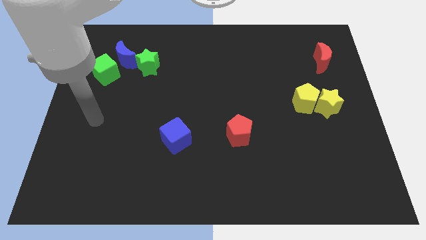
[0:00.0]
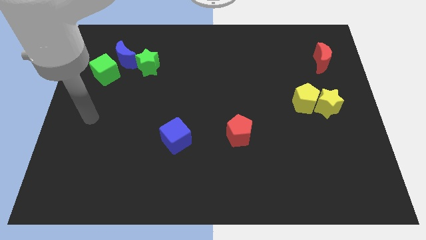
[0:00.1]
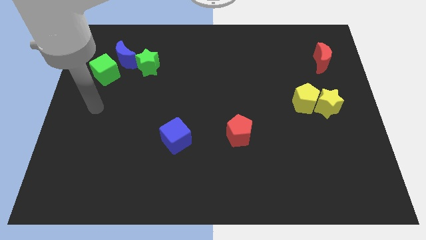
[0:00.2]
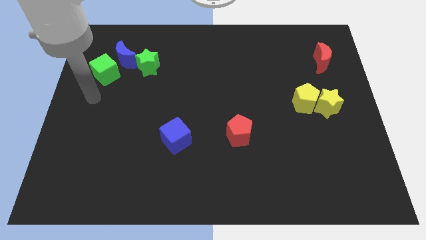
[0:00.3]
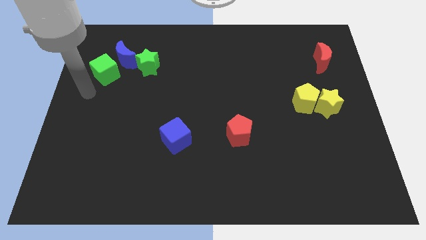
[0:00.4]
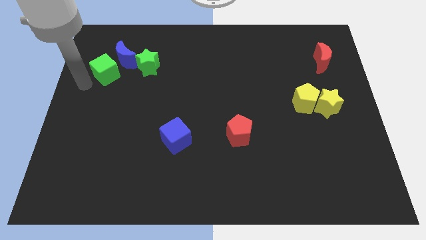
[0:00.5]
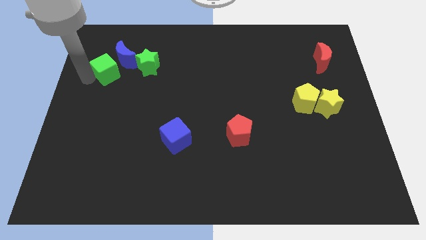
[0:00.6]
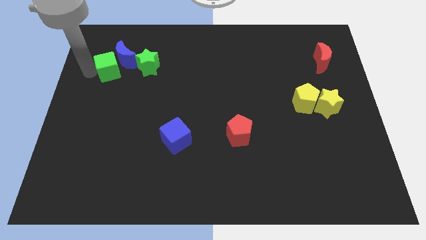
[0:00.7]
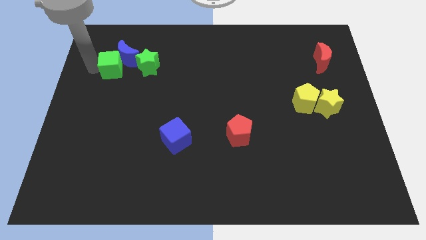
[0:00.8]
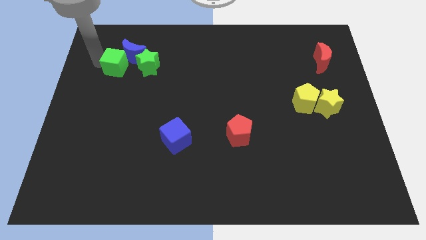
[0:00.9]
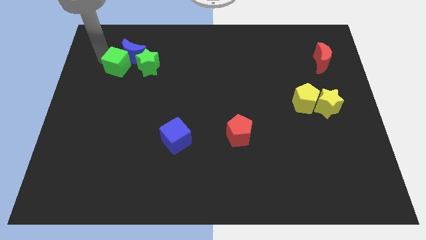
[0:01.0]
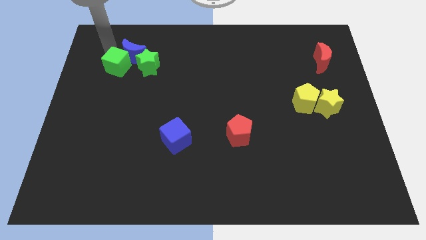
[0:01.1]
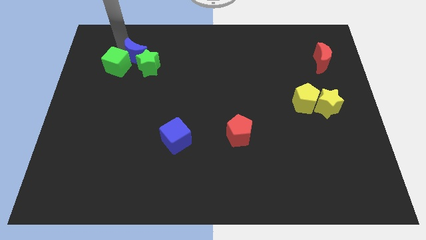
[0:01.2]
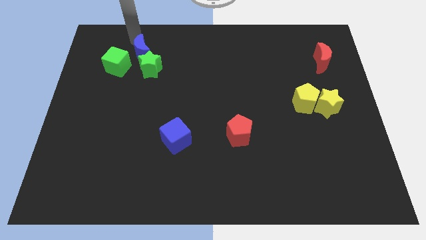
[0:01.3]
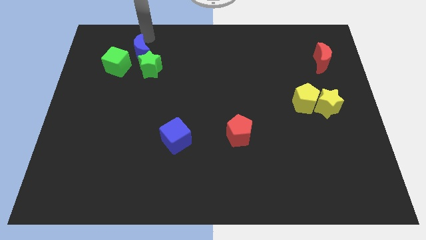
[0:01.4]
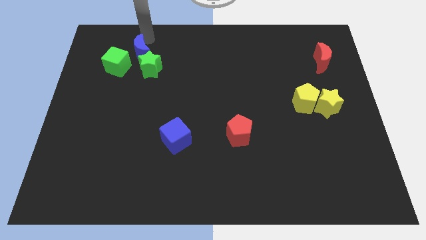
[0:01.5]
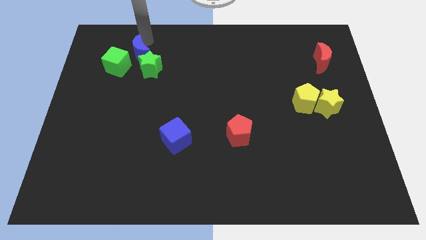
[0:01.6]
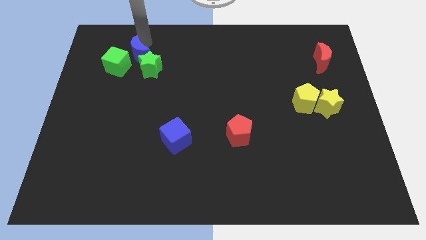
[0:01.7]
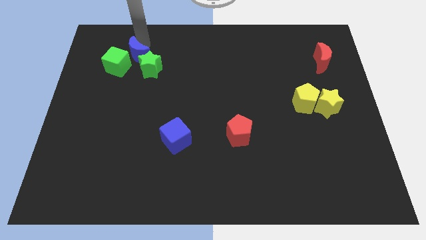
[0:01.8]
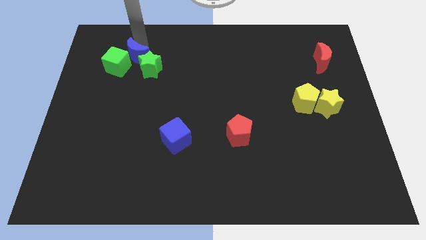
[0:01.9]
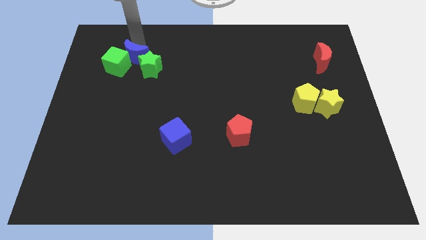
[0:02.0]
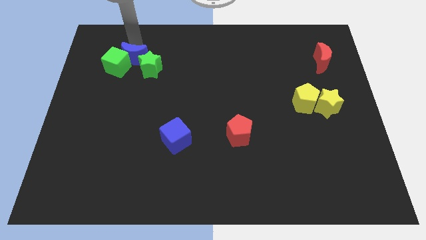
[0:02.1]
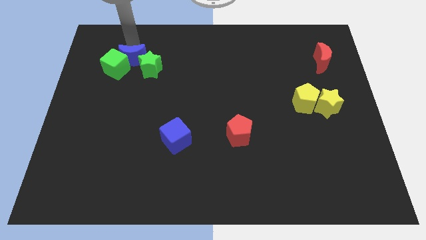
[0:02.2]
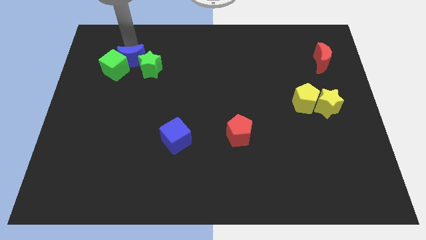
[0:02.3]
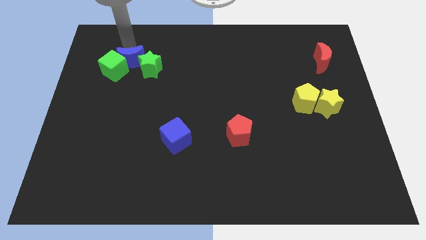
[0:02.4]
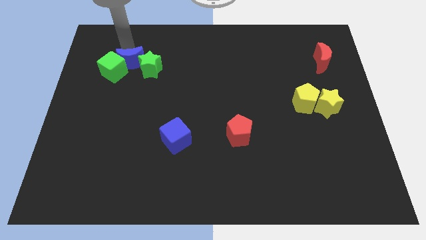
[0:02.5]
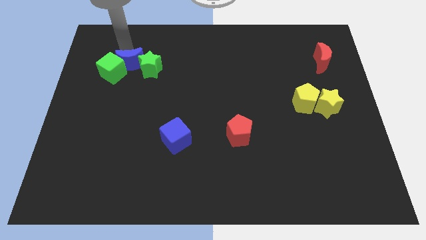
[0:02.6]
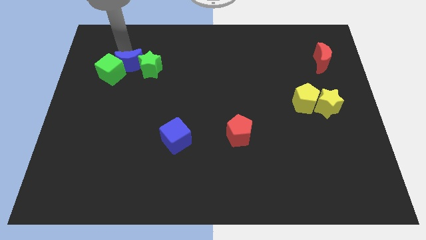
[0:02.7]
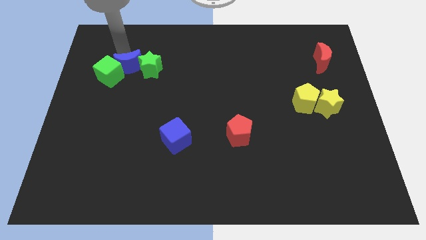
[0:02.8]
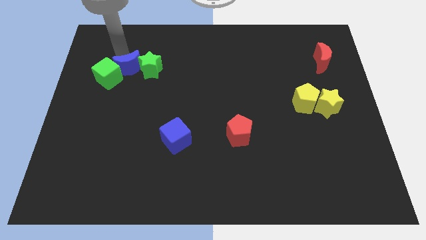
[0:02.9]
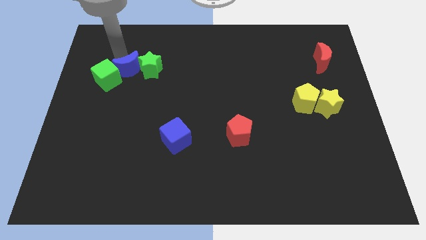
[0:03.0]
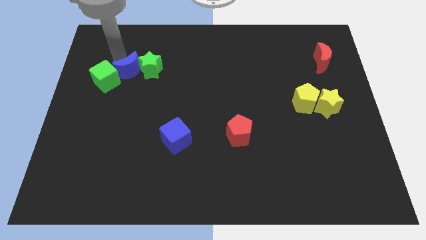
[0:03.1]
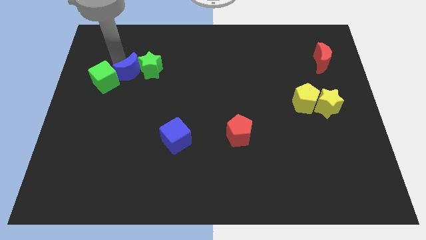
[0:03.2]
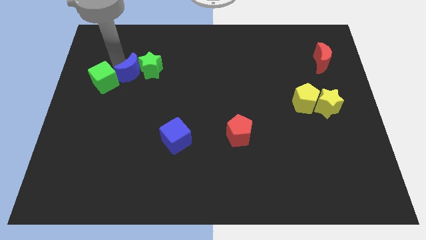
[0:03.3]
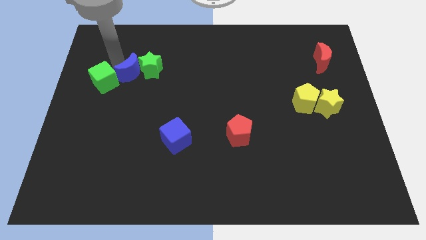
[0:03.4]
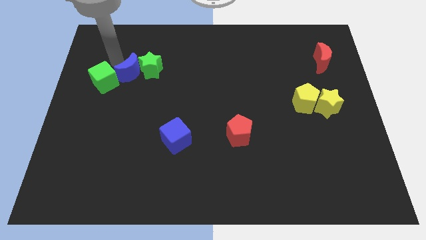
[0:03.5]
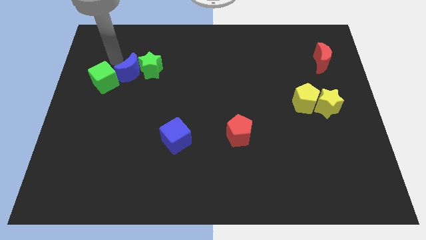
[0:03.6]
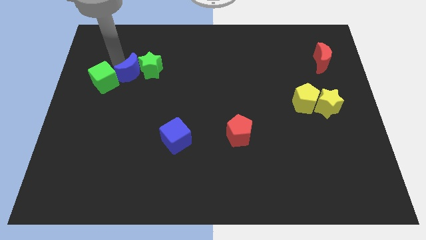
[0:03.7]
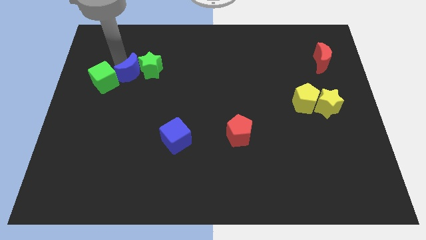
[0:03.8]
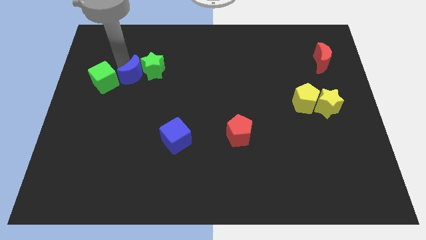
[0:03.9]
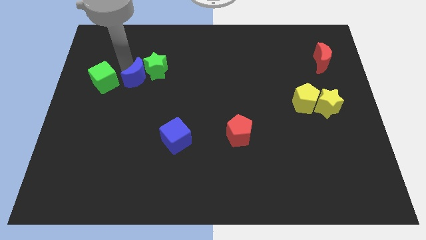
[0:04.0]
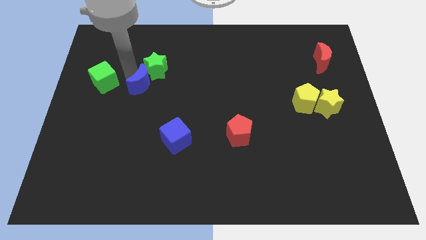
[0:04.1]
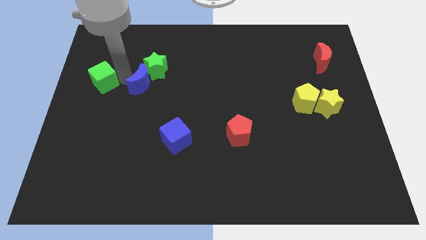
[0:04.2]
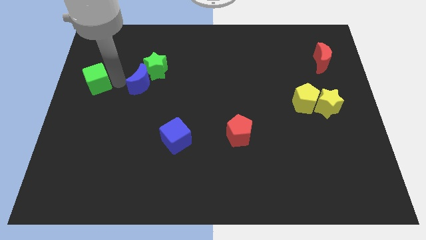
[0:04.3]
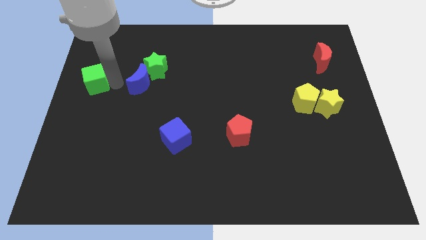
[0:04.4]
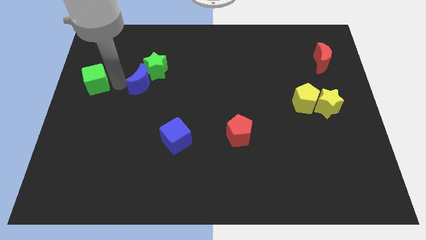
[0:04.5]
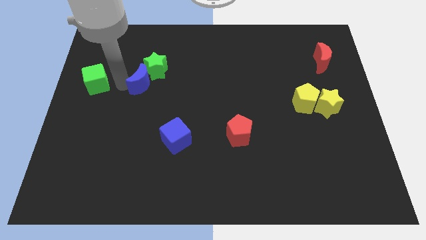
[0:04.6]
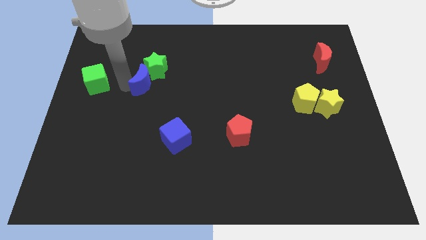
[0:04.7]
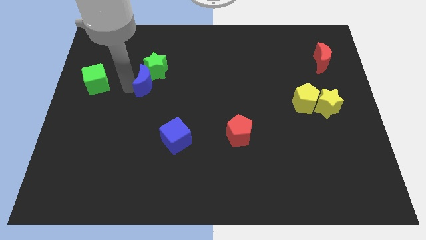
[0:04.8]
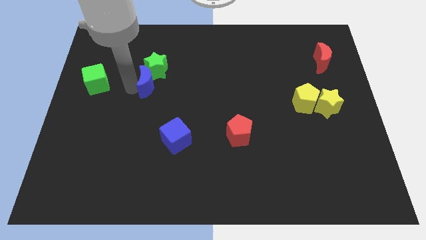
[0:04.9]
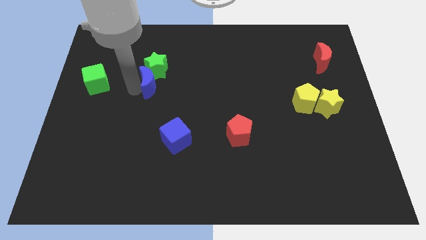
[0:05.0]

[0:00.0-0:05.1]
put the blue moon diagonally down and to the right of the green star

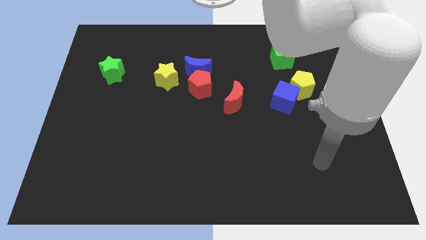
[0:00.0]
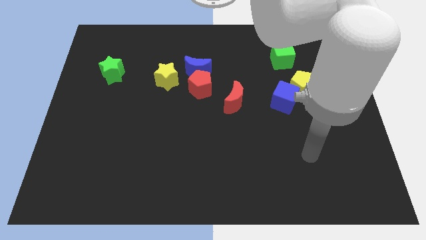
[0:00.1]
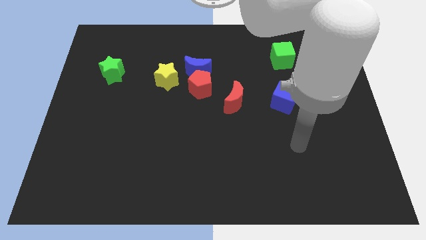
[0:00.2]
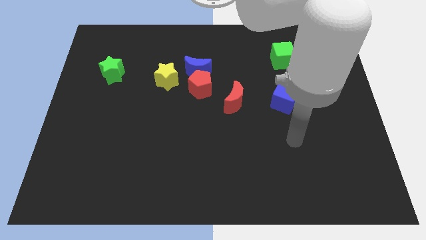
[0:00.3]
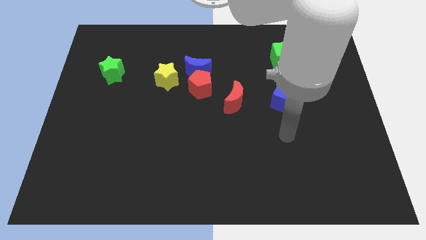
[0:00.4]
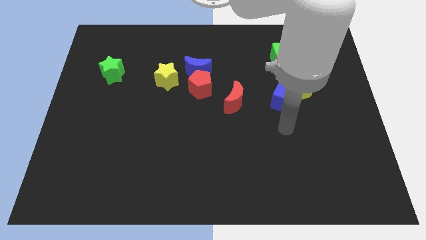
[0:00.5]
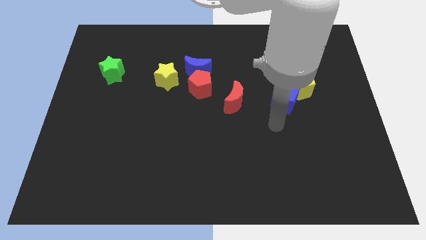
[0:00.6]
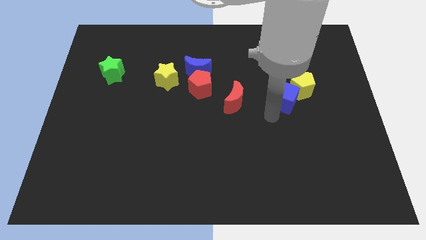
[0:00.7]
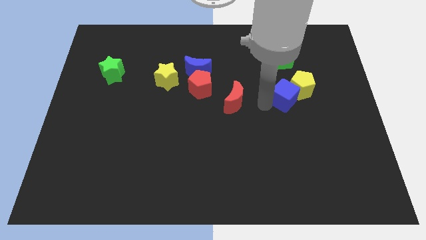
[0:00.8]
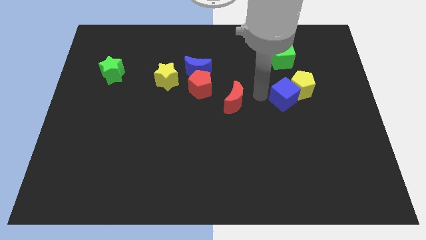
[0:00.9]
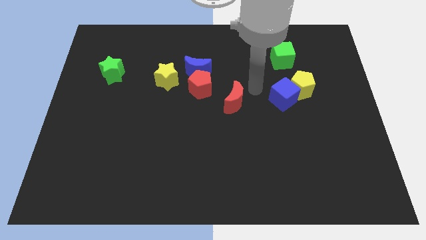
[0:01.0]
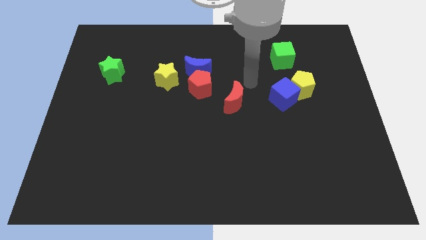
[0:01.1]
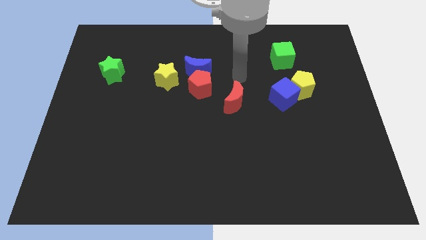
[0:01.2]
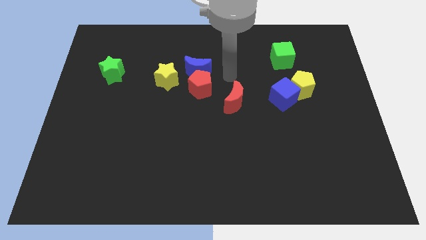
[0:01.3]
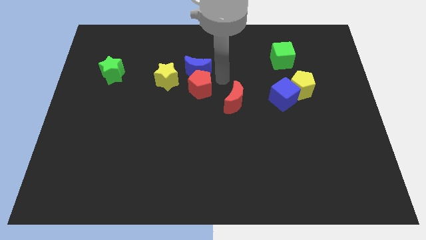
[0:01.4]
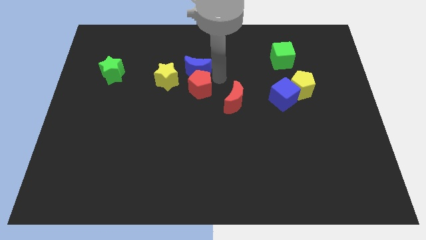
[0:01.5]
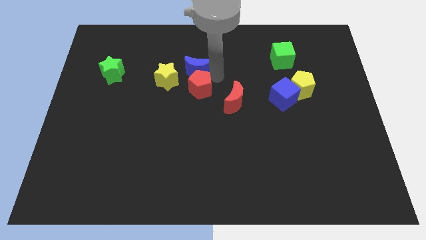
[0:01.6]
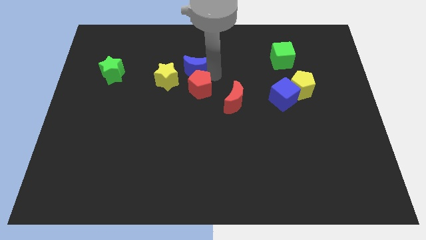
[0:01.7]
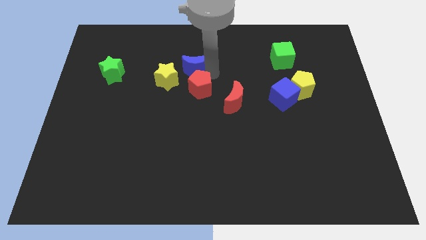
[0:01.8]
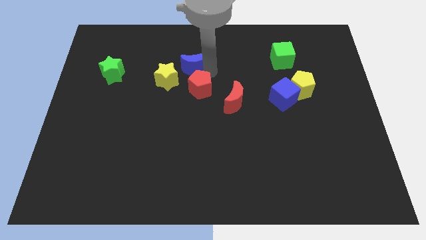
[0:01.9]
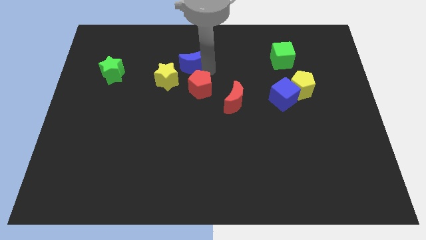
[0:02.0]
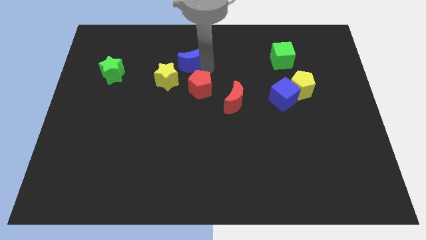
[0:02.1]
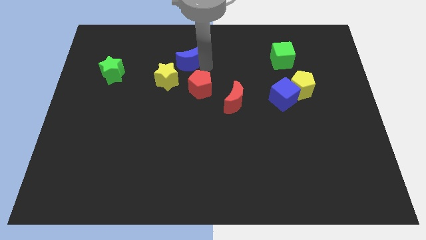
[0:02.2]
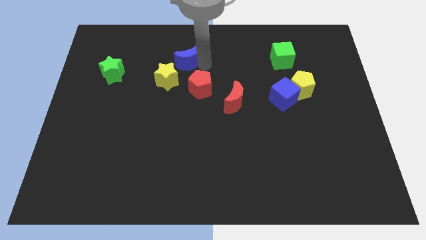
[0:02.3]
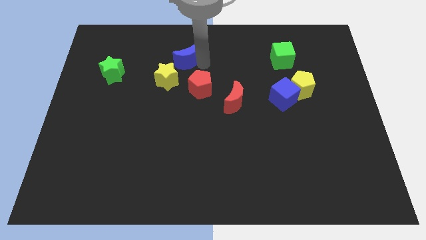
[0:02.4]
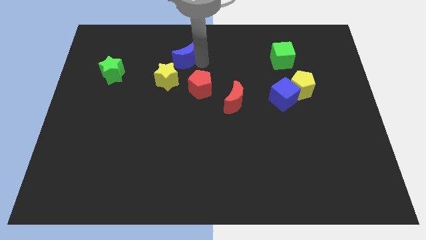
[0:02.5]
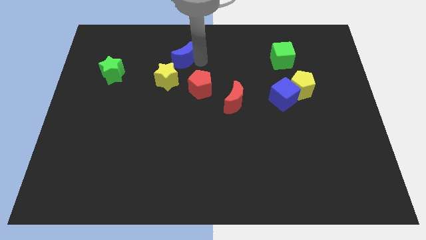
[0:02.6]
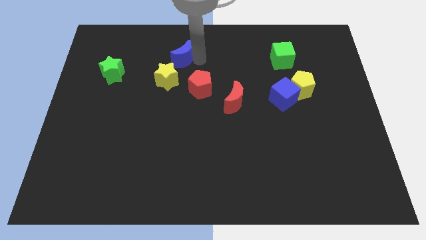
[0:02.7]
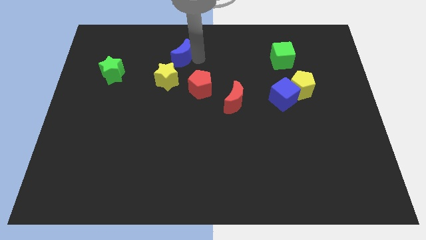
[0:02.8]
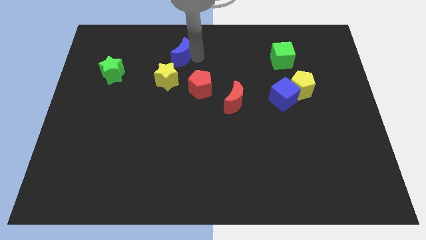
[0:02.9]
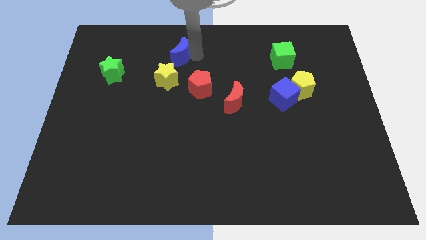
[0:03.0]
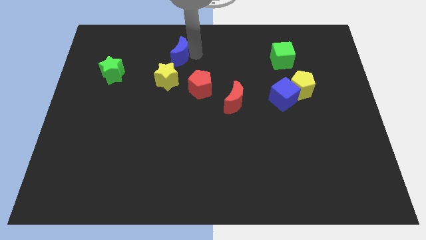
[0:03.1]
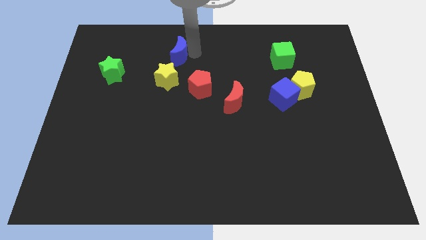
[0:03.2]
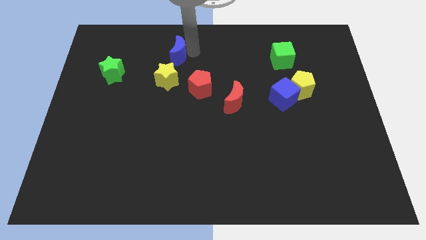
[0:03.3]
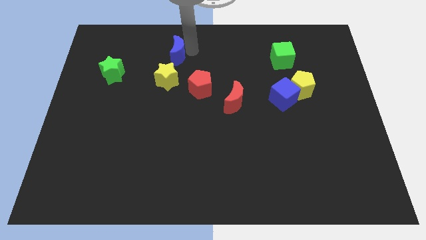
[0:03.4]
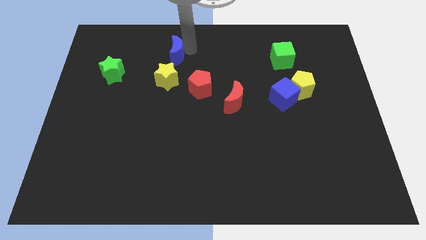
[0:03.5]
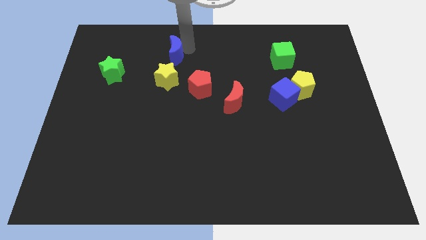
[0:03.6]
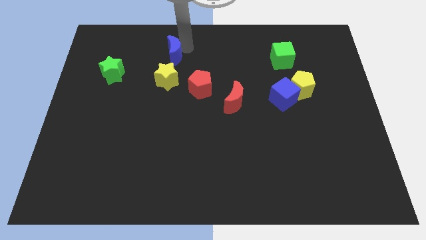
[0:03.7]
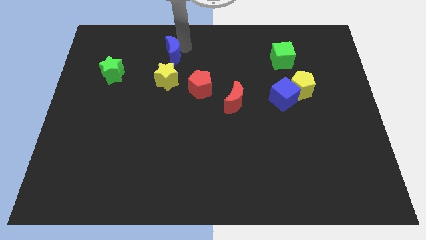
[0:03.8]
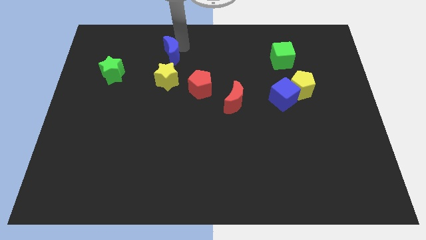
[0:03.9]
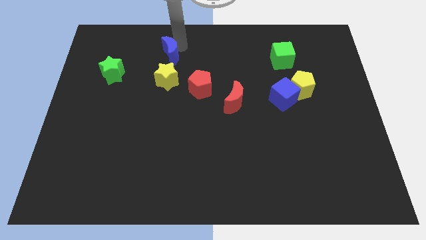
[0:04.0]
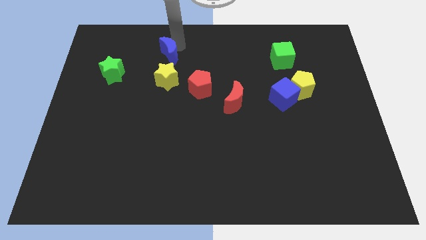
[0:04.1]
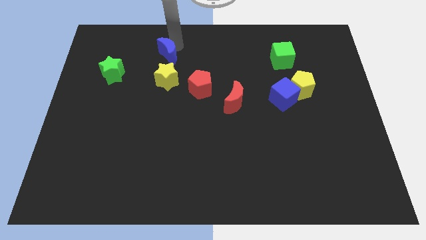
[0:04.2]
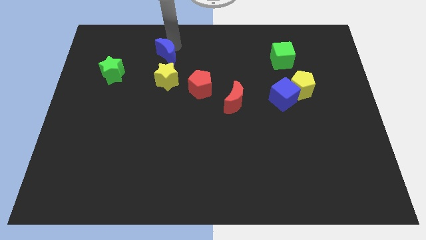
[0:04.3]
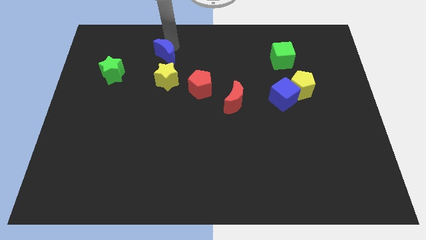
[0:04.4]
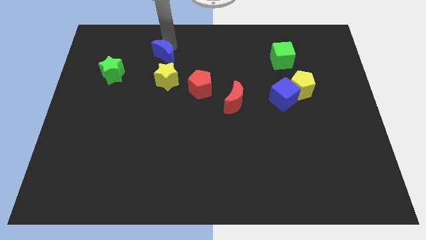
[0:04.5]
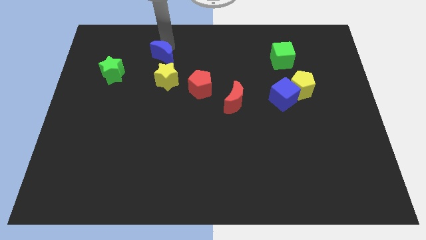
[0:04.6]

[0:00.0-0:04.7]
move the blue moon diagonally up and to the left of the yellow star
